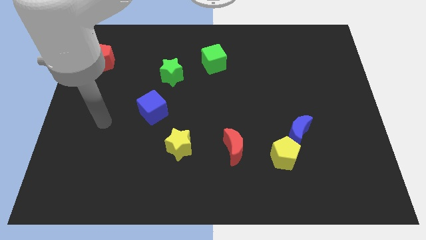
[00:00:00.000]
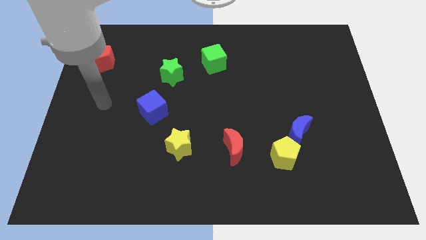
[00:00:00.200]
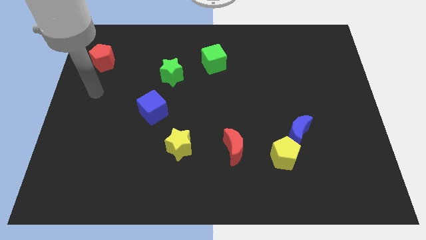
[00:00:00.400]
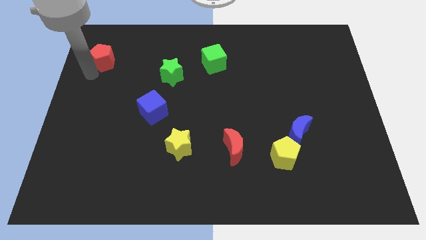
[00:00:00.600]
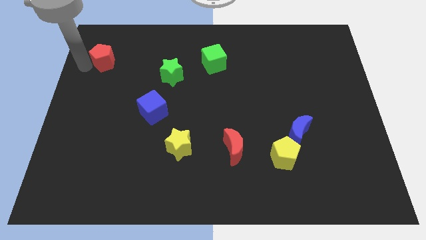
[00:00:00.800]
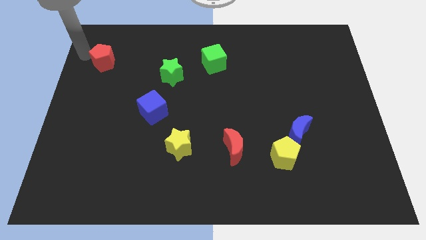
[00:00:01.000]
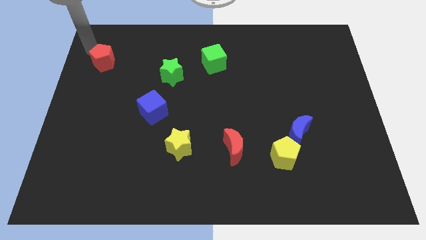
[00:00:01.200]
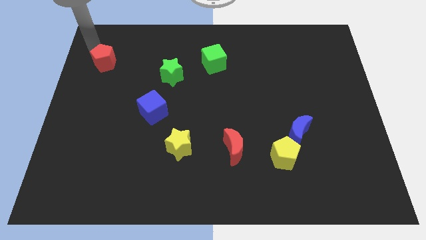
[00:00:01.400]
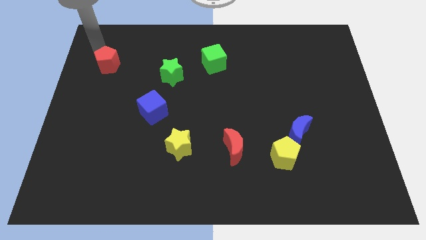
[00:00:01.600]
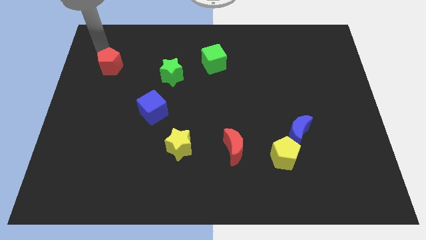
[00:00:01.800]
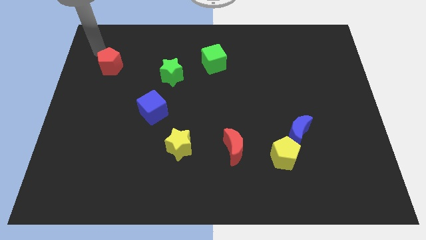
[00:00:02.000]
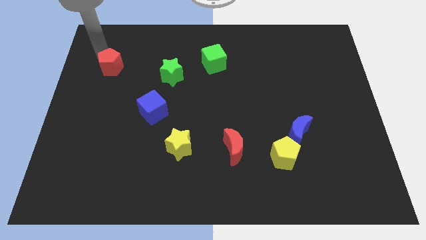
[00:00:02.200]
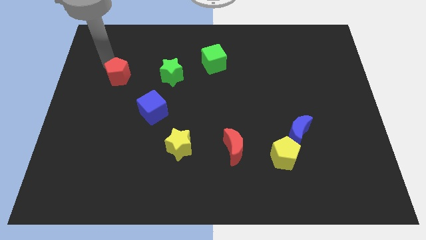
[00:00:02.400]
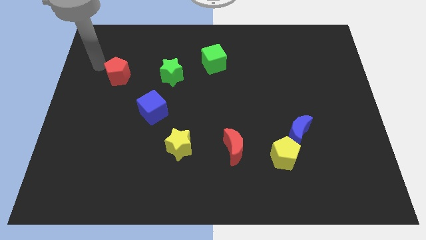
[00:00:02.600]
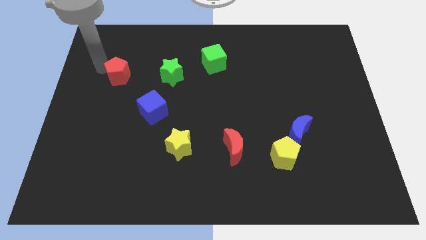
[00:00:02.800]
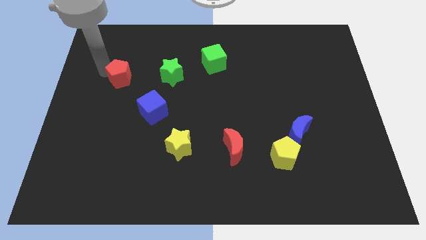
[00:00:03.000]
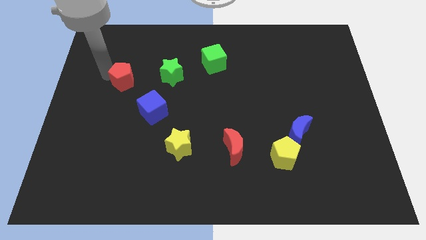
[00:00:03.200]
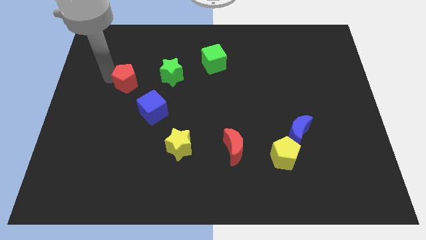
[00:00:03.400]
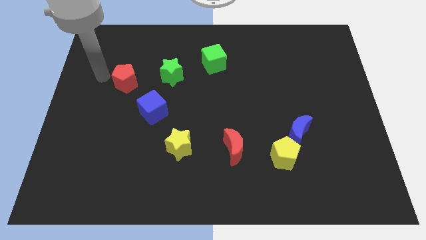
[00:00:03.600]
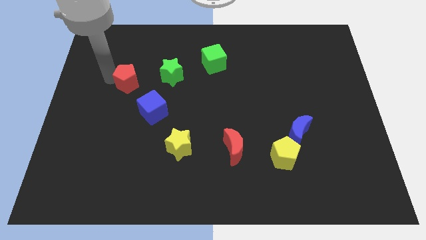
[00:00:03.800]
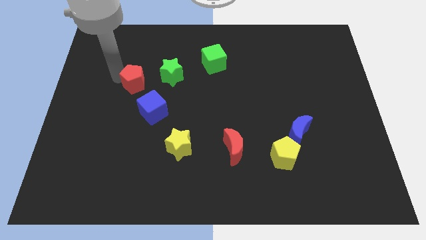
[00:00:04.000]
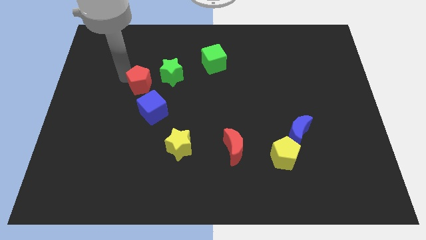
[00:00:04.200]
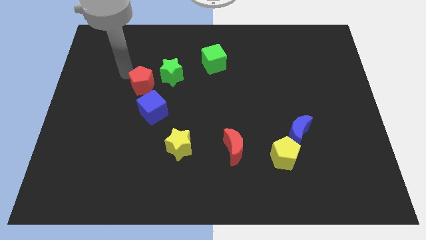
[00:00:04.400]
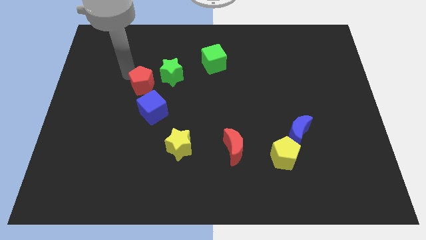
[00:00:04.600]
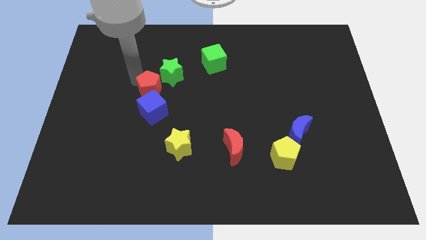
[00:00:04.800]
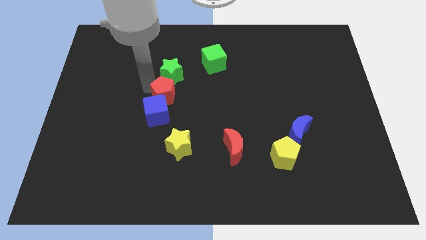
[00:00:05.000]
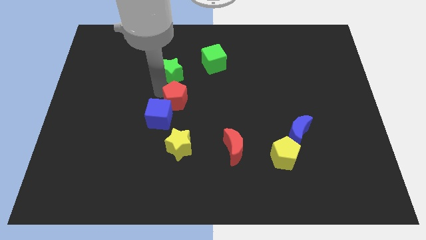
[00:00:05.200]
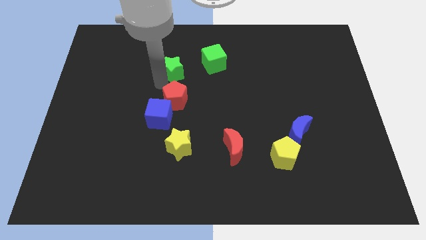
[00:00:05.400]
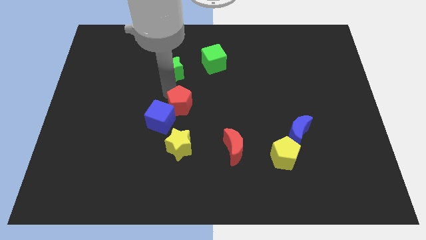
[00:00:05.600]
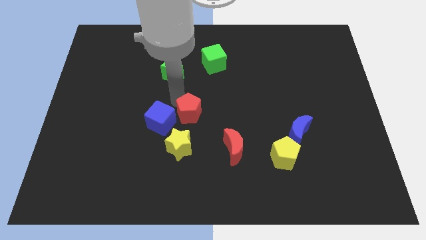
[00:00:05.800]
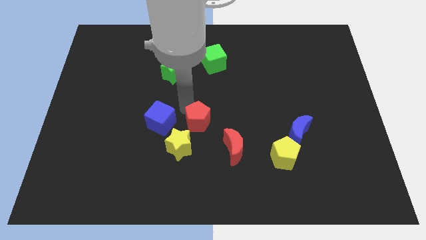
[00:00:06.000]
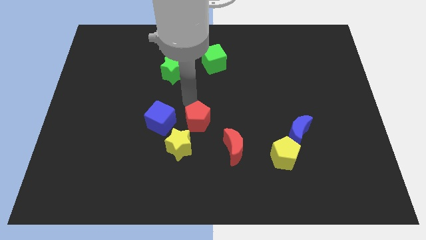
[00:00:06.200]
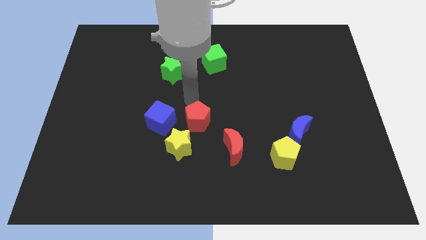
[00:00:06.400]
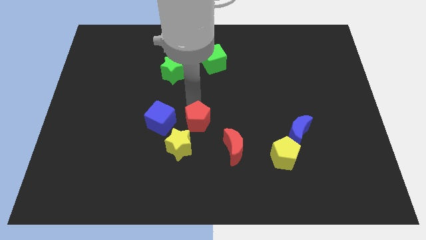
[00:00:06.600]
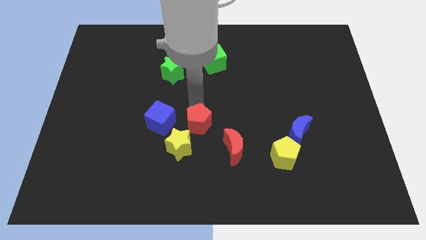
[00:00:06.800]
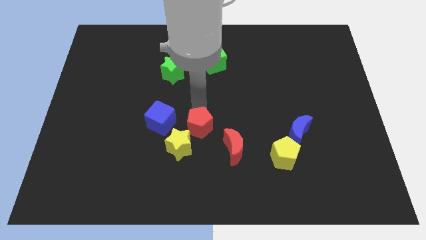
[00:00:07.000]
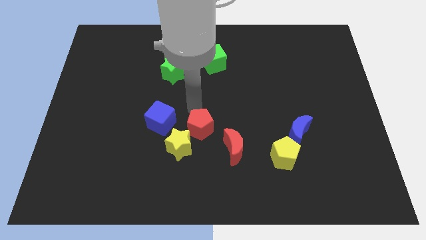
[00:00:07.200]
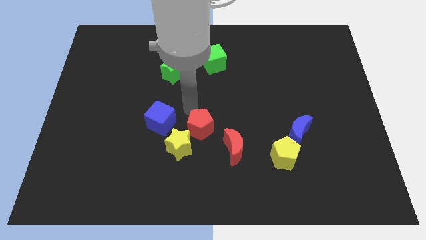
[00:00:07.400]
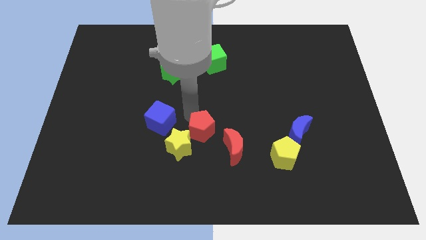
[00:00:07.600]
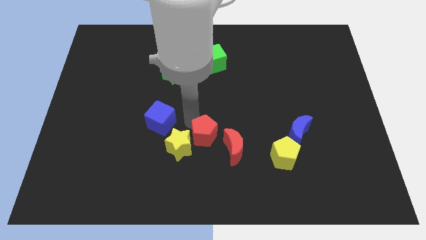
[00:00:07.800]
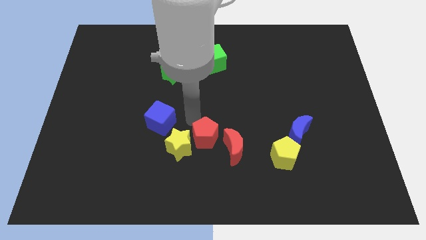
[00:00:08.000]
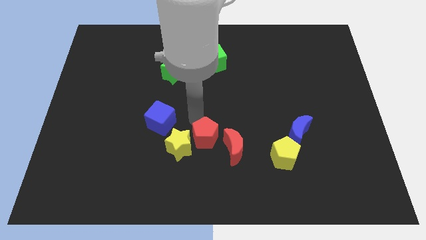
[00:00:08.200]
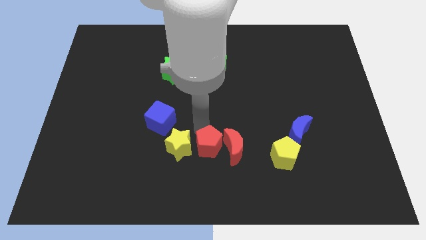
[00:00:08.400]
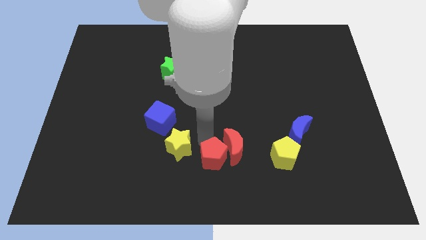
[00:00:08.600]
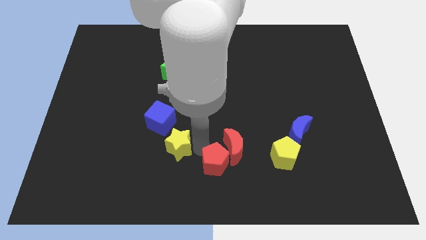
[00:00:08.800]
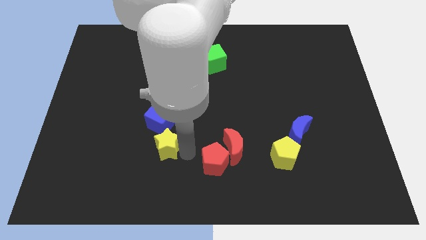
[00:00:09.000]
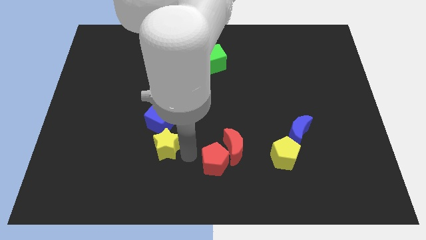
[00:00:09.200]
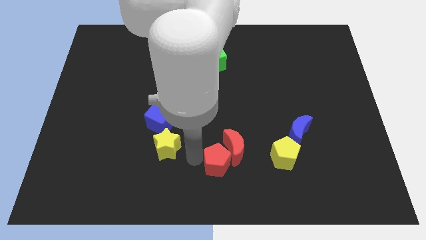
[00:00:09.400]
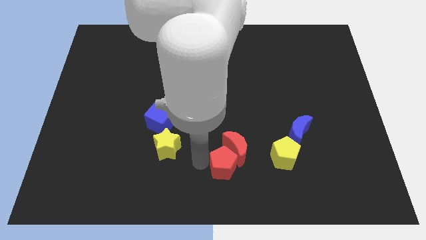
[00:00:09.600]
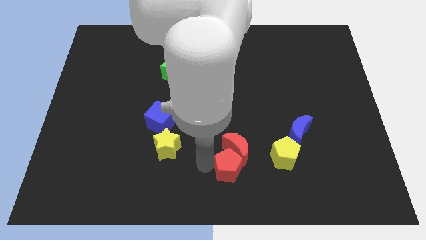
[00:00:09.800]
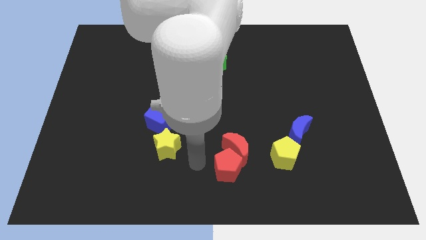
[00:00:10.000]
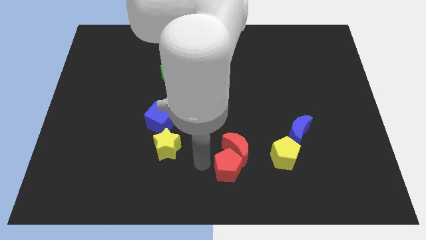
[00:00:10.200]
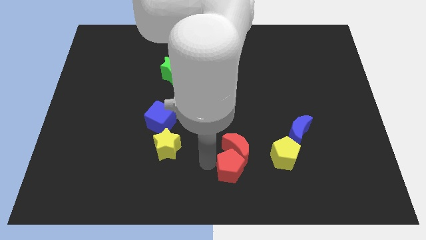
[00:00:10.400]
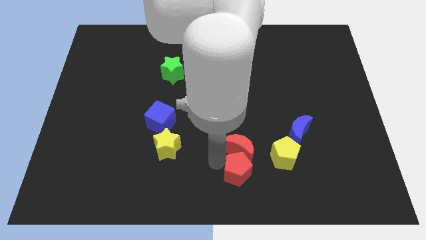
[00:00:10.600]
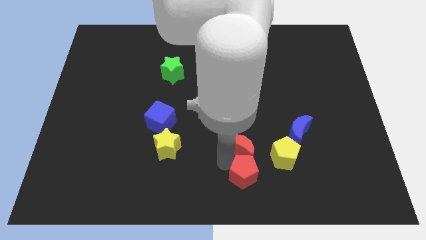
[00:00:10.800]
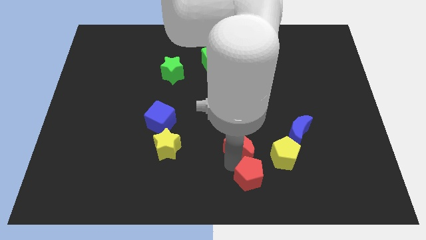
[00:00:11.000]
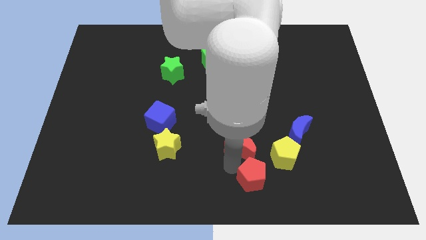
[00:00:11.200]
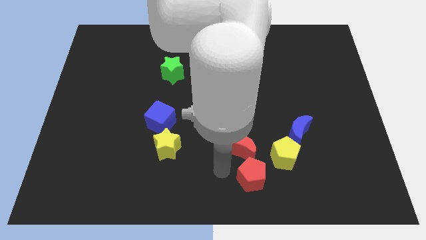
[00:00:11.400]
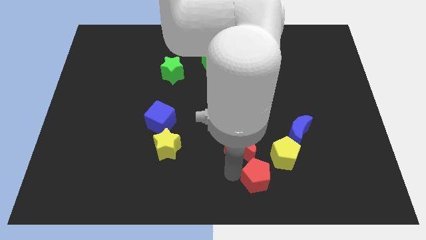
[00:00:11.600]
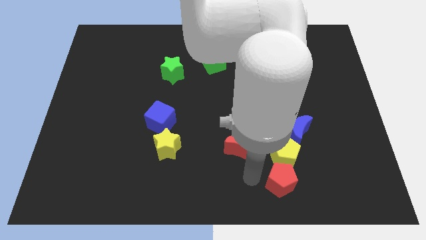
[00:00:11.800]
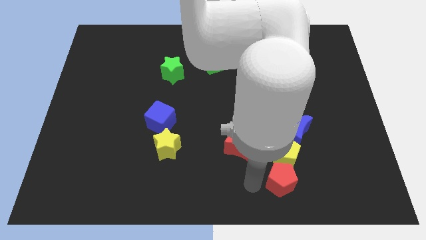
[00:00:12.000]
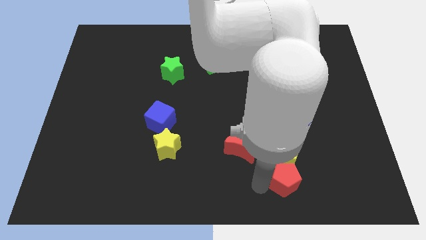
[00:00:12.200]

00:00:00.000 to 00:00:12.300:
push the red pentagon to the bottom right of the yellow pentagon

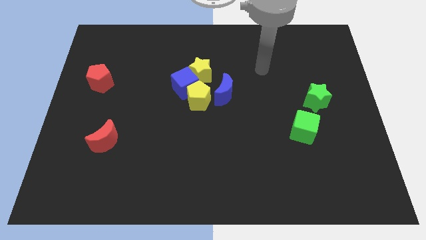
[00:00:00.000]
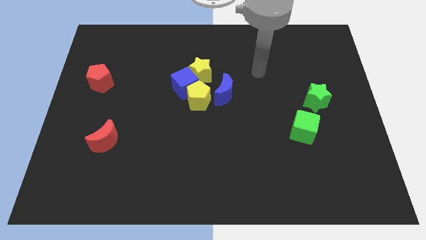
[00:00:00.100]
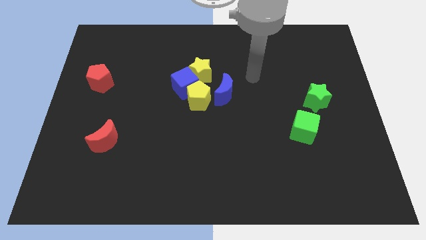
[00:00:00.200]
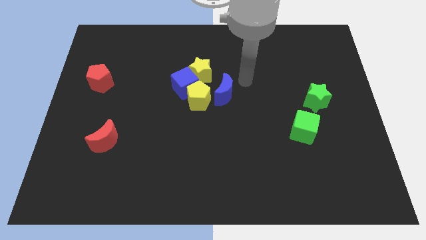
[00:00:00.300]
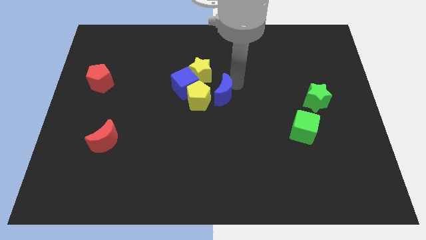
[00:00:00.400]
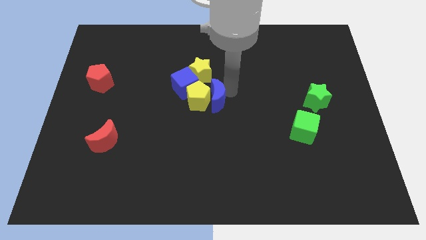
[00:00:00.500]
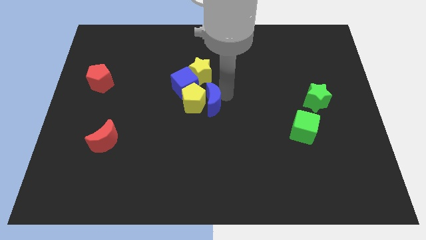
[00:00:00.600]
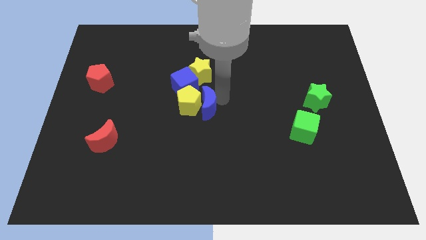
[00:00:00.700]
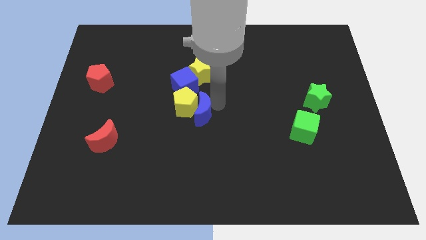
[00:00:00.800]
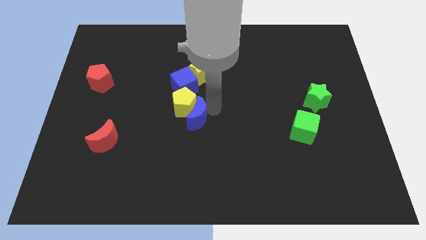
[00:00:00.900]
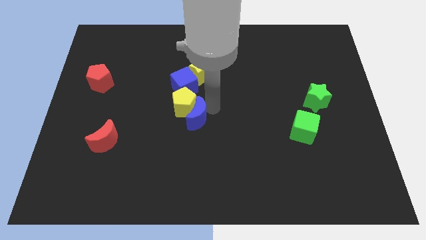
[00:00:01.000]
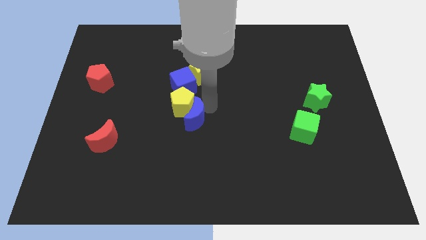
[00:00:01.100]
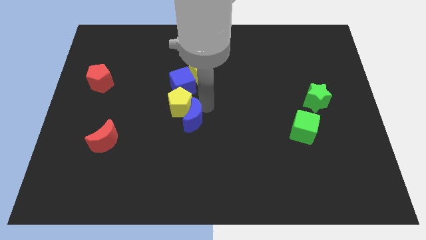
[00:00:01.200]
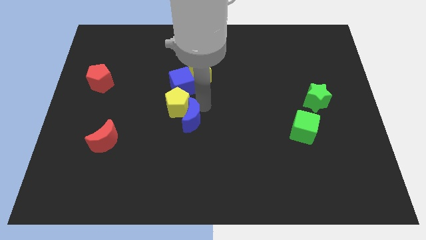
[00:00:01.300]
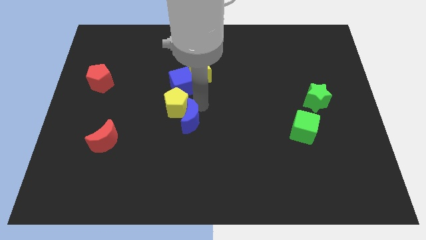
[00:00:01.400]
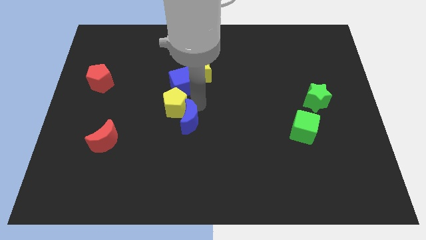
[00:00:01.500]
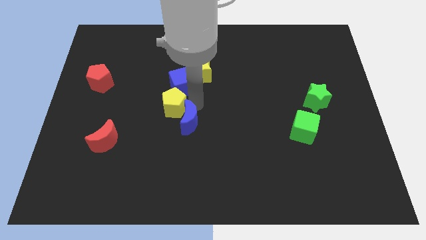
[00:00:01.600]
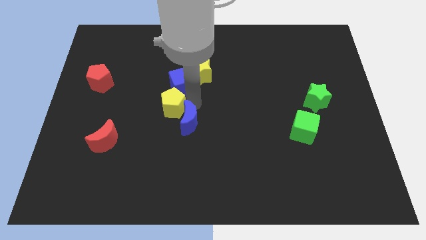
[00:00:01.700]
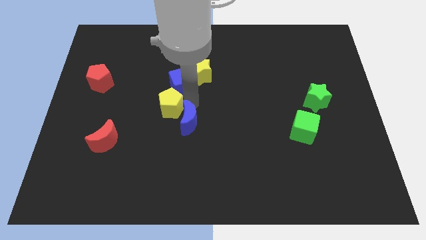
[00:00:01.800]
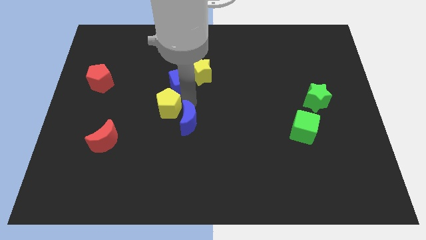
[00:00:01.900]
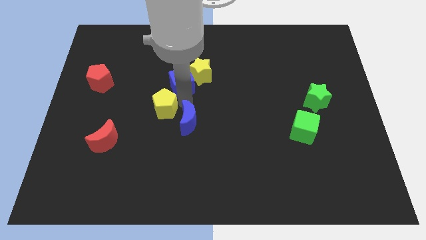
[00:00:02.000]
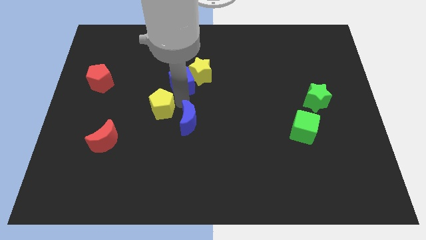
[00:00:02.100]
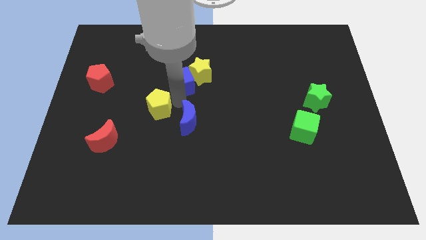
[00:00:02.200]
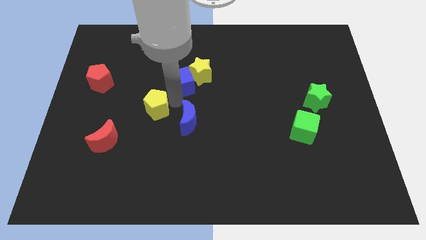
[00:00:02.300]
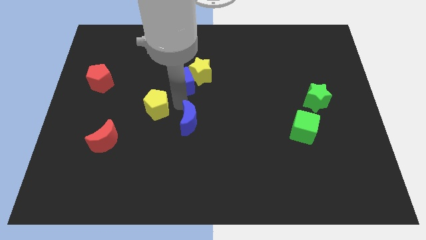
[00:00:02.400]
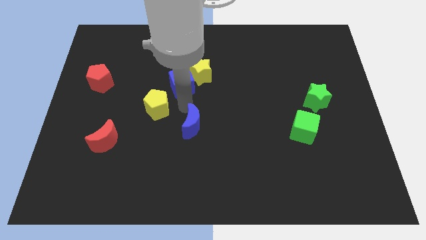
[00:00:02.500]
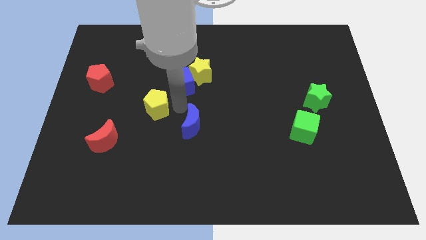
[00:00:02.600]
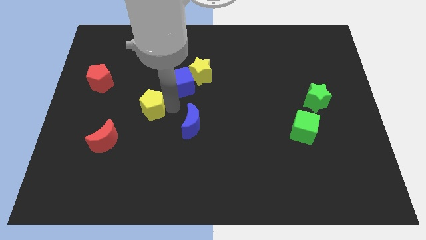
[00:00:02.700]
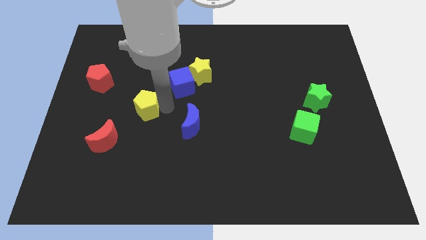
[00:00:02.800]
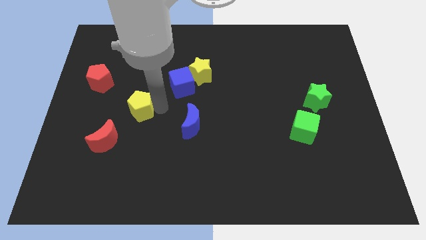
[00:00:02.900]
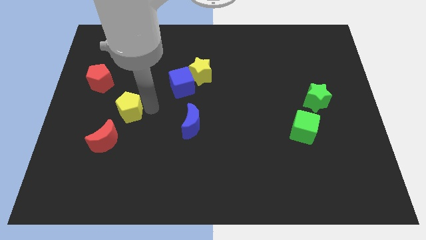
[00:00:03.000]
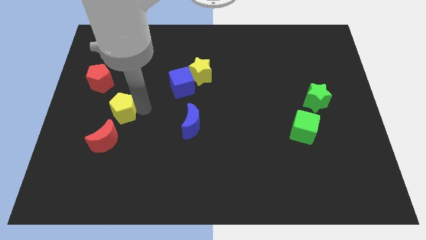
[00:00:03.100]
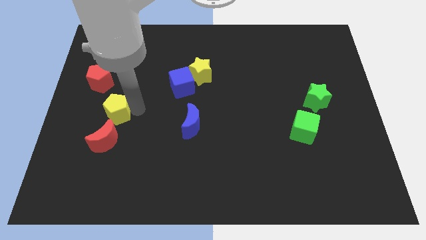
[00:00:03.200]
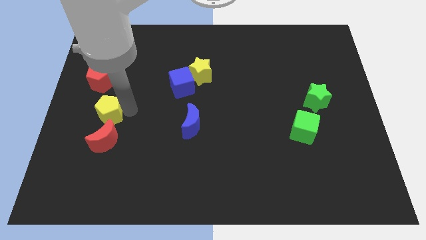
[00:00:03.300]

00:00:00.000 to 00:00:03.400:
move the yellow pentagon below the red pentagon
